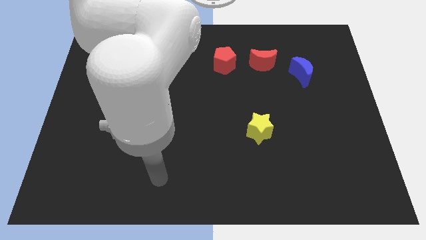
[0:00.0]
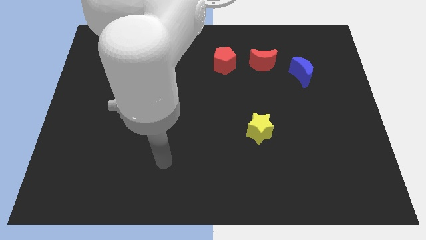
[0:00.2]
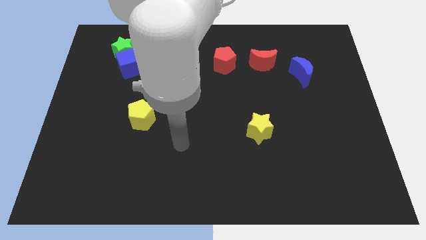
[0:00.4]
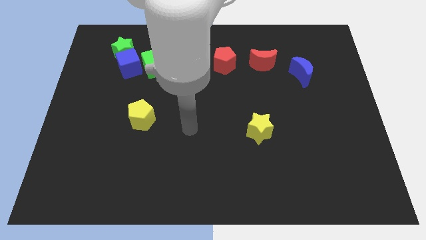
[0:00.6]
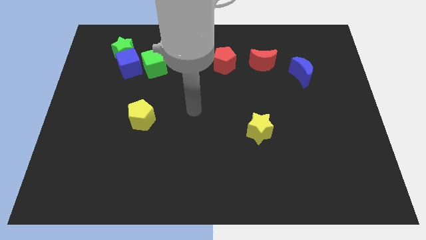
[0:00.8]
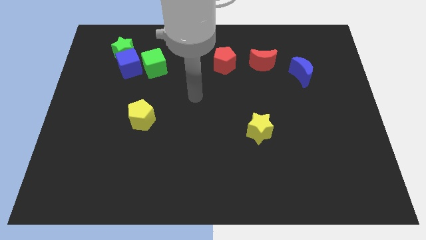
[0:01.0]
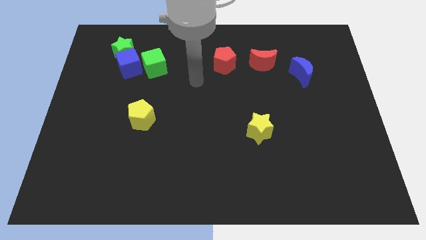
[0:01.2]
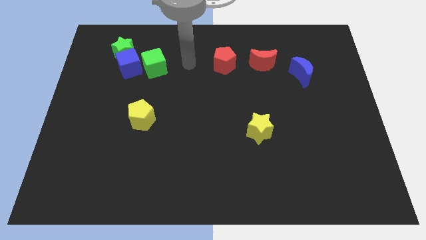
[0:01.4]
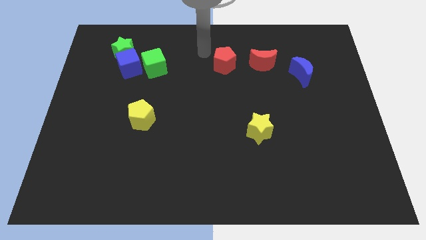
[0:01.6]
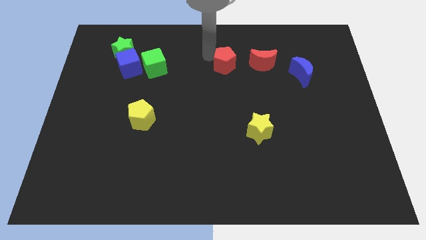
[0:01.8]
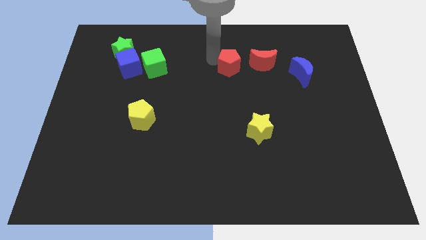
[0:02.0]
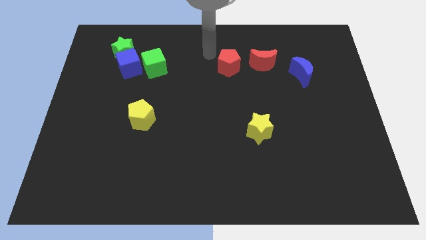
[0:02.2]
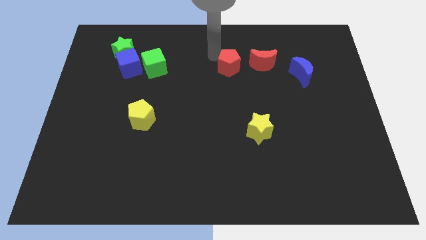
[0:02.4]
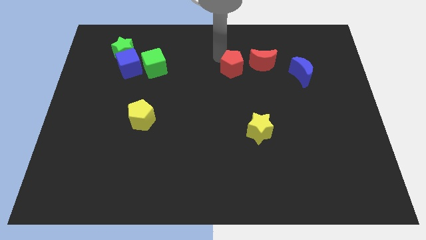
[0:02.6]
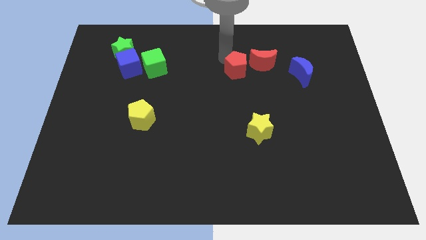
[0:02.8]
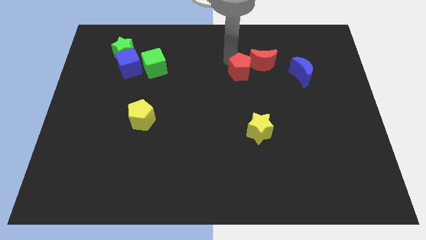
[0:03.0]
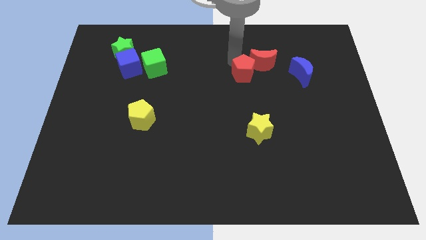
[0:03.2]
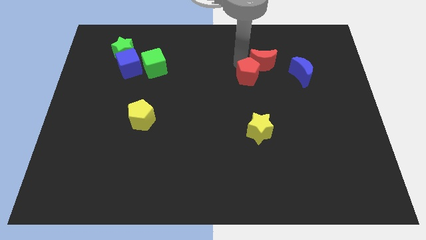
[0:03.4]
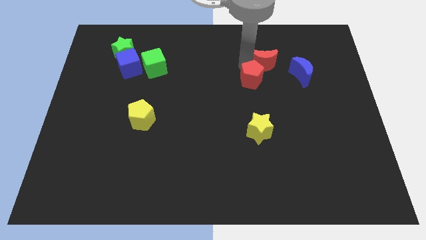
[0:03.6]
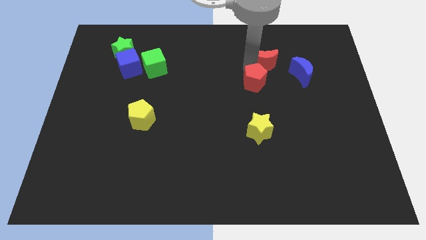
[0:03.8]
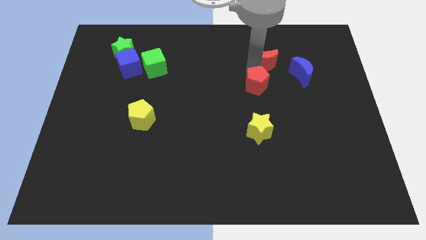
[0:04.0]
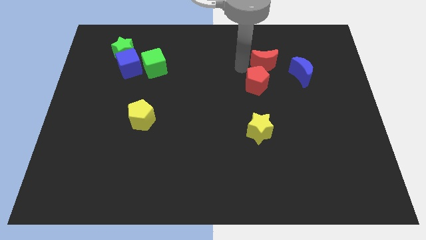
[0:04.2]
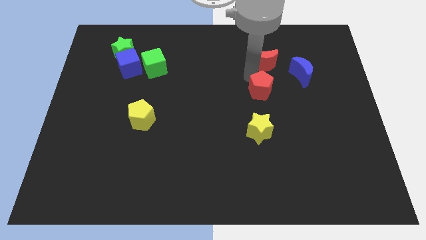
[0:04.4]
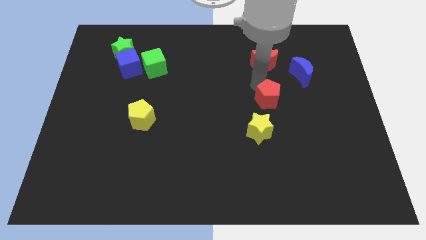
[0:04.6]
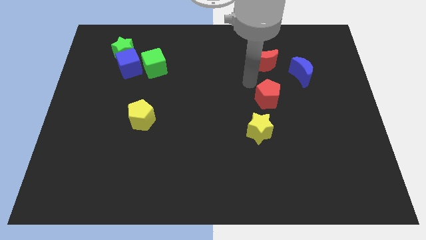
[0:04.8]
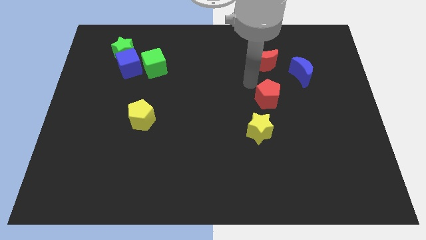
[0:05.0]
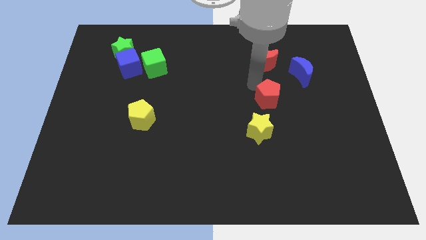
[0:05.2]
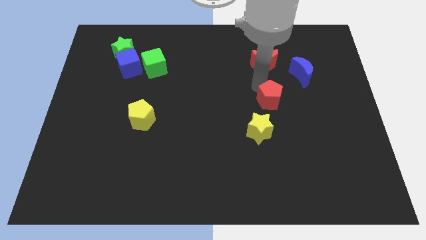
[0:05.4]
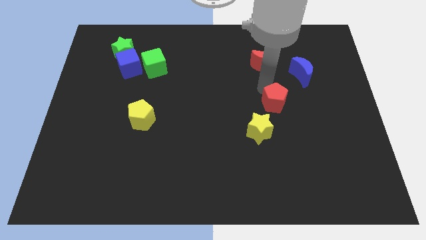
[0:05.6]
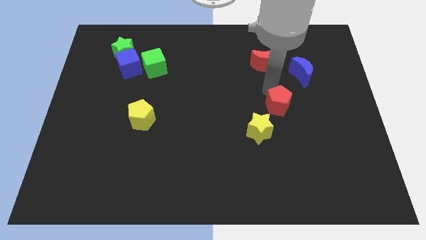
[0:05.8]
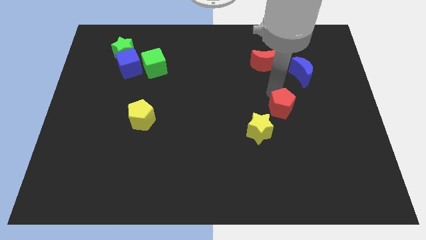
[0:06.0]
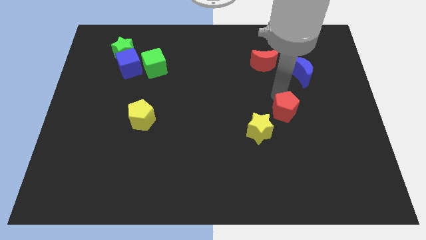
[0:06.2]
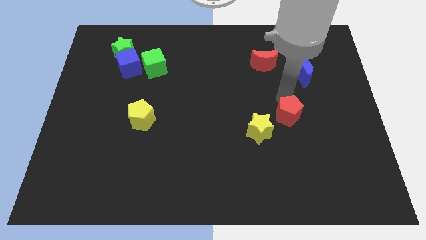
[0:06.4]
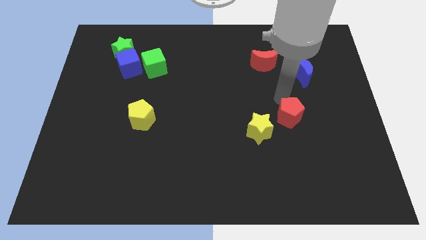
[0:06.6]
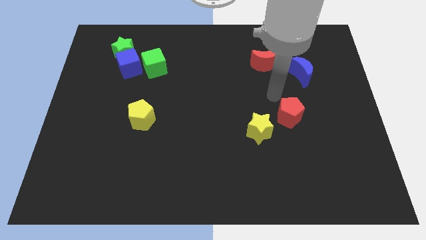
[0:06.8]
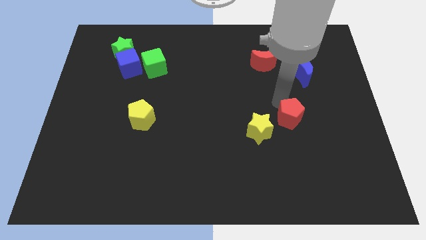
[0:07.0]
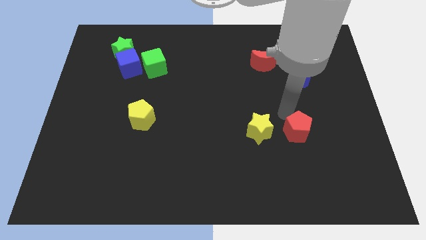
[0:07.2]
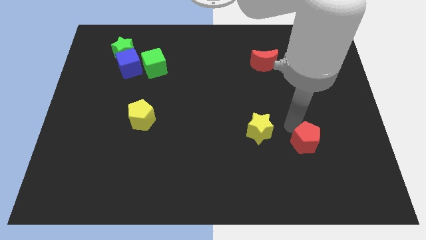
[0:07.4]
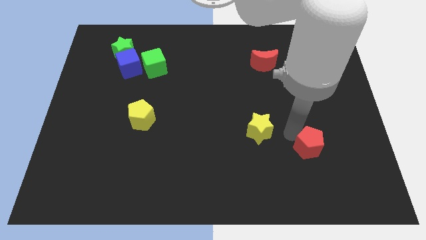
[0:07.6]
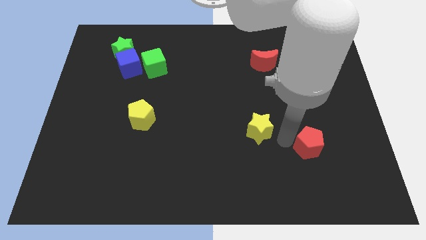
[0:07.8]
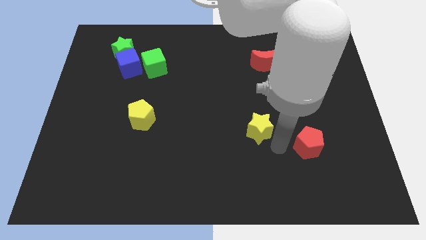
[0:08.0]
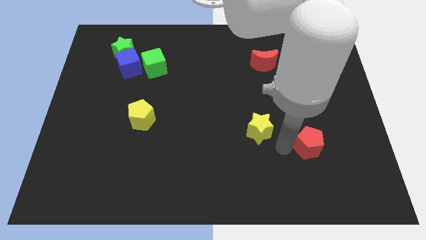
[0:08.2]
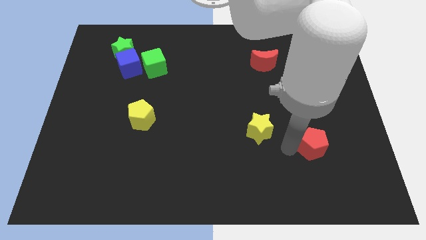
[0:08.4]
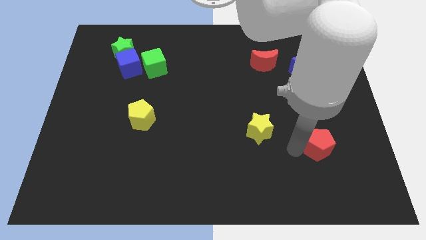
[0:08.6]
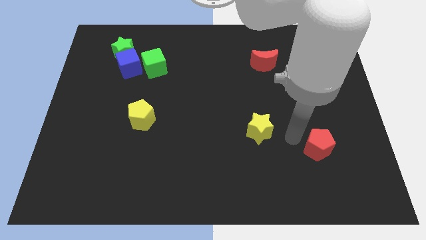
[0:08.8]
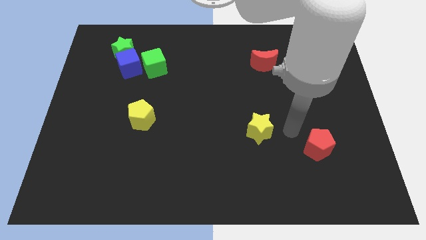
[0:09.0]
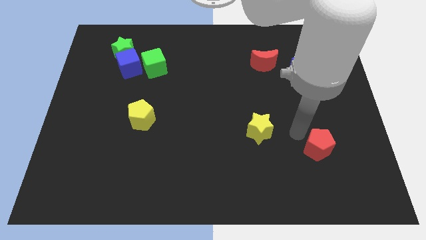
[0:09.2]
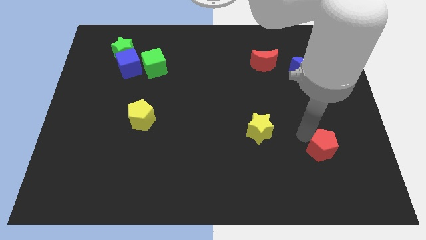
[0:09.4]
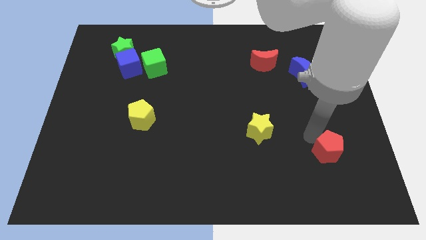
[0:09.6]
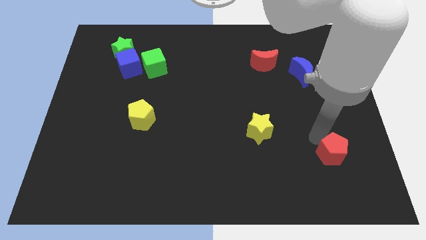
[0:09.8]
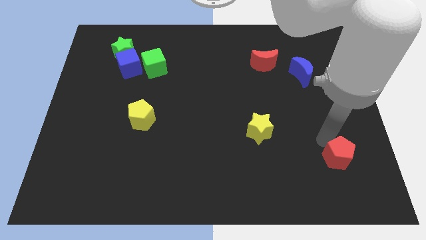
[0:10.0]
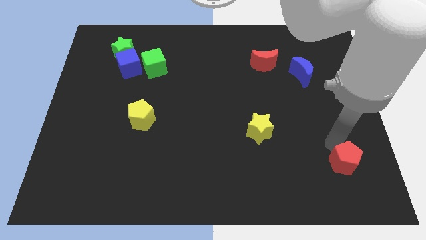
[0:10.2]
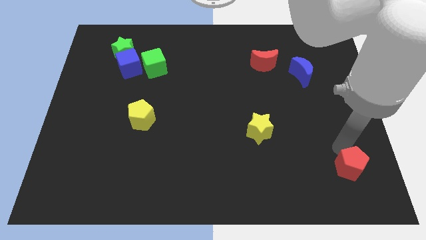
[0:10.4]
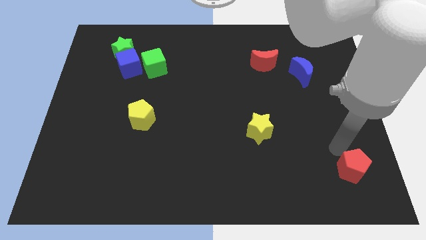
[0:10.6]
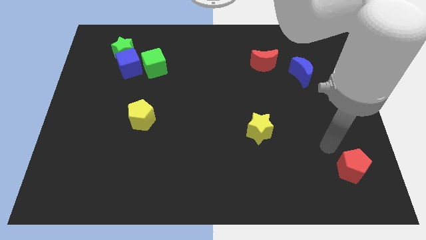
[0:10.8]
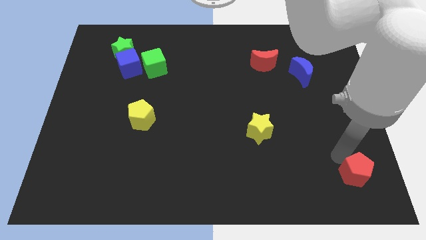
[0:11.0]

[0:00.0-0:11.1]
move the red pentagon to the bottom right of the board
